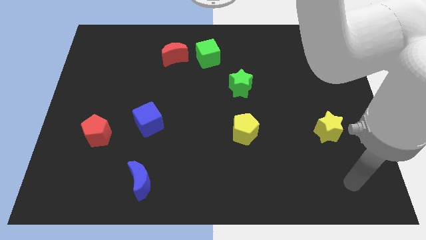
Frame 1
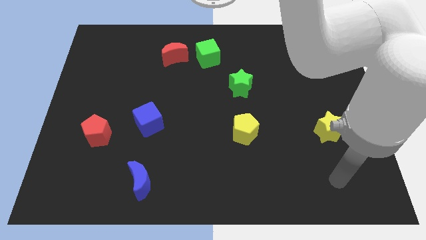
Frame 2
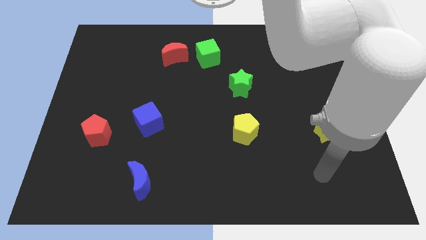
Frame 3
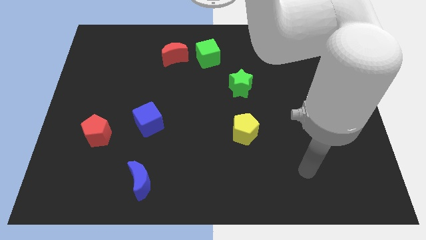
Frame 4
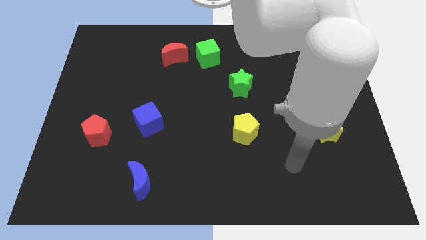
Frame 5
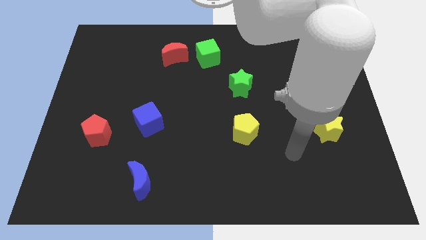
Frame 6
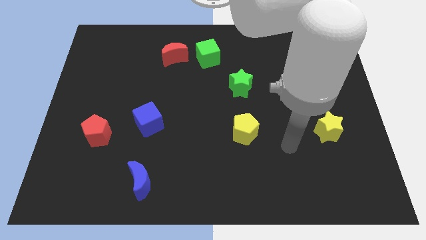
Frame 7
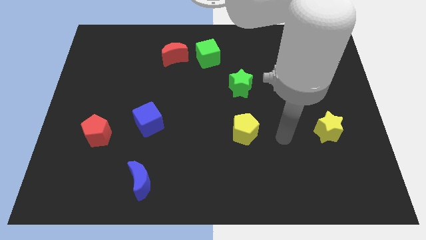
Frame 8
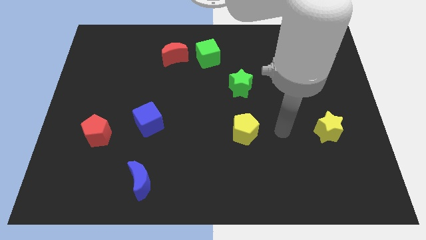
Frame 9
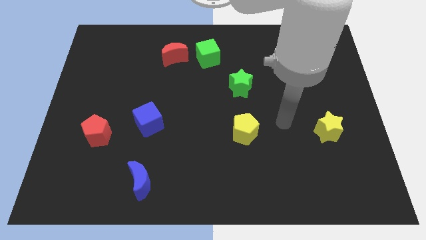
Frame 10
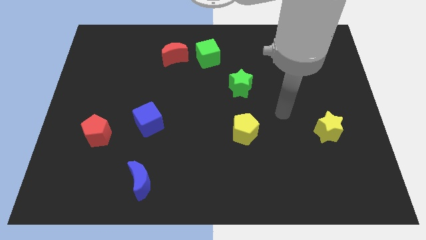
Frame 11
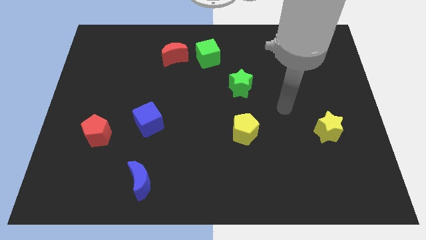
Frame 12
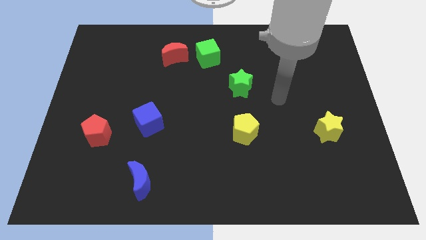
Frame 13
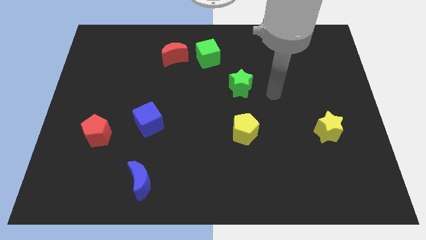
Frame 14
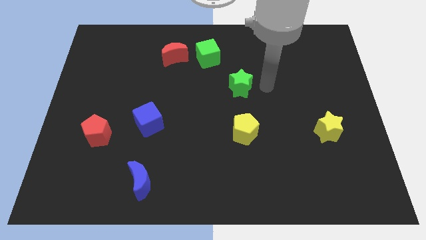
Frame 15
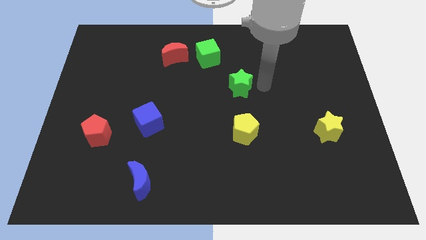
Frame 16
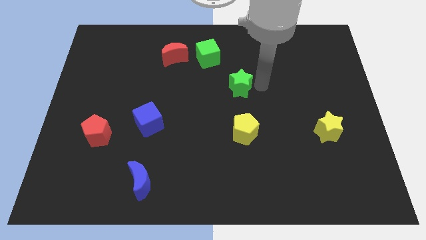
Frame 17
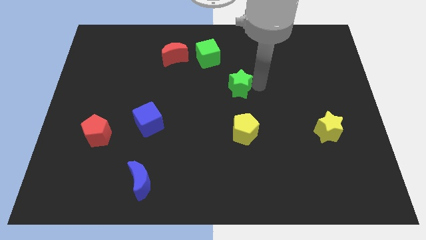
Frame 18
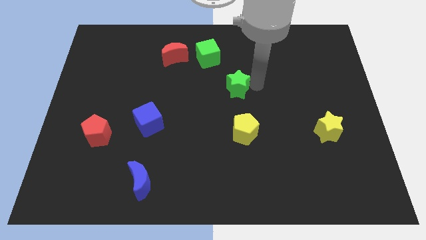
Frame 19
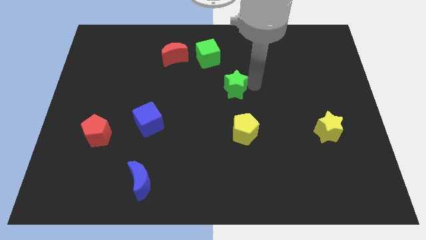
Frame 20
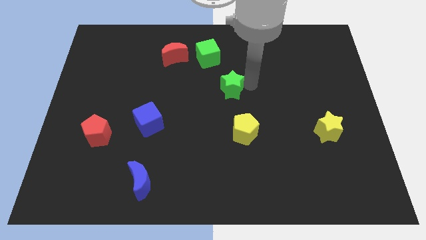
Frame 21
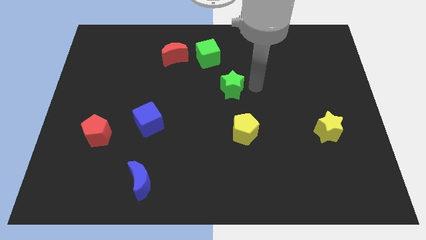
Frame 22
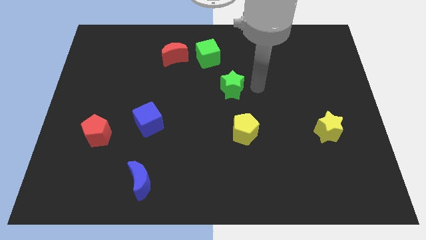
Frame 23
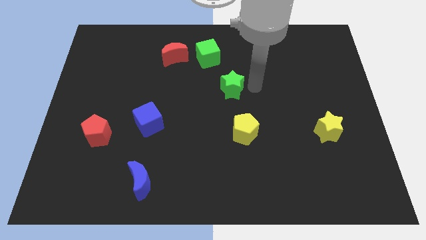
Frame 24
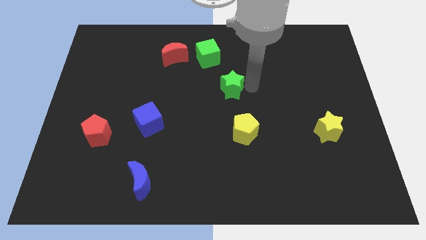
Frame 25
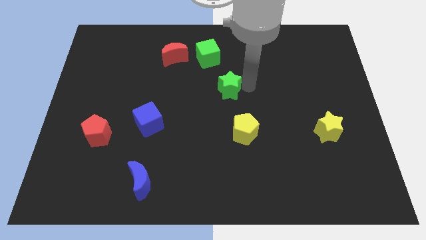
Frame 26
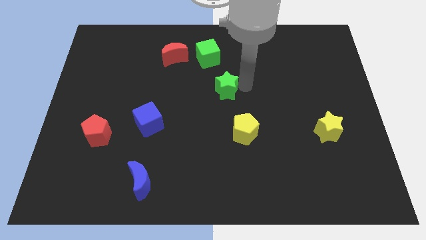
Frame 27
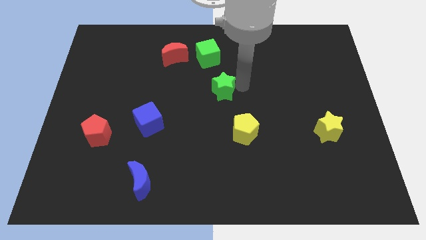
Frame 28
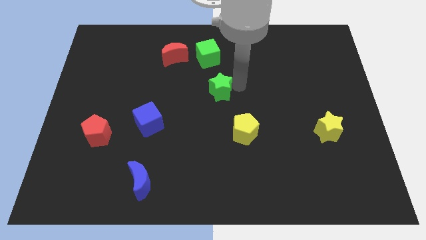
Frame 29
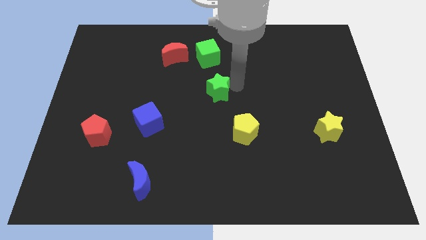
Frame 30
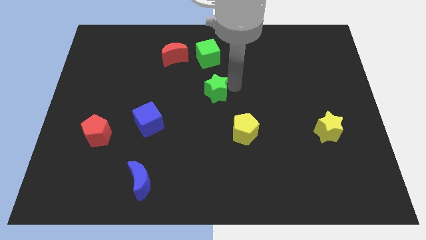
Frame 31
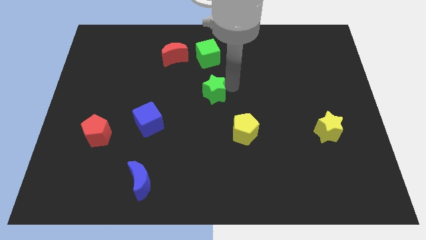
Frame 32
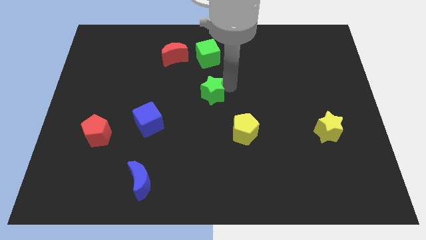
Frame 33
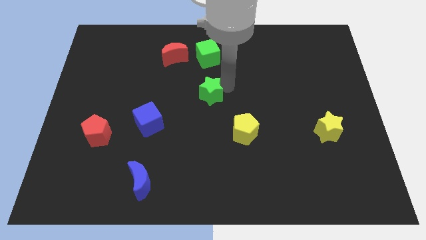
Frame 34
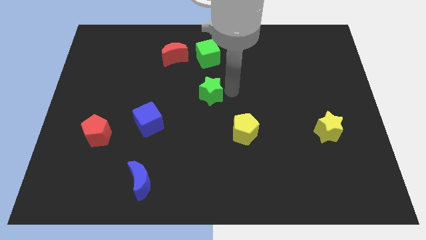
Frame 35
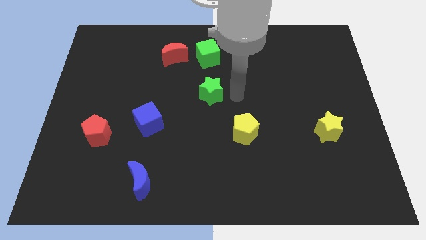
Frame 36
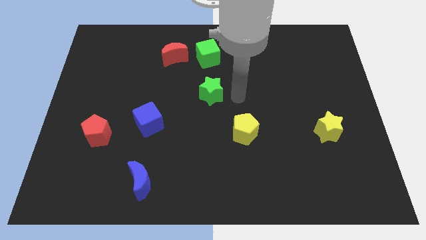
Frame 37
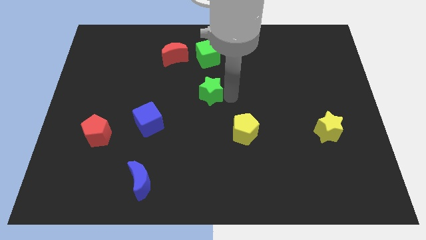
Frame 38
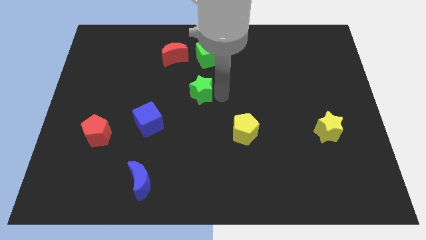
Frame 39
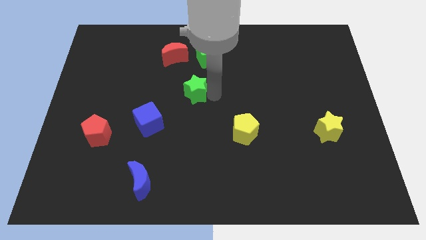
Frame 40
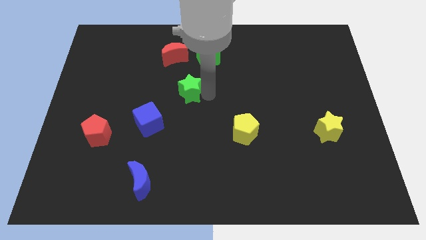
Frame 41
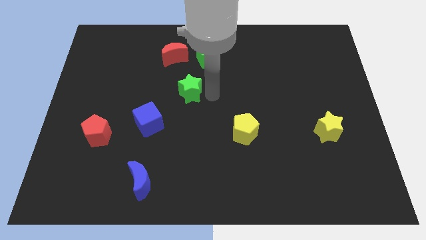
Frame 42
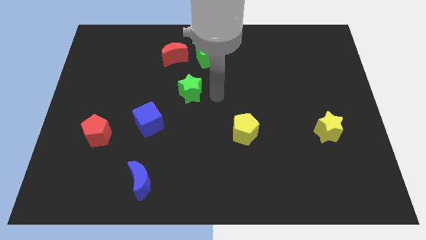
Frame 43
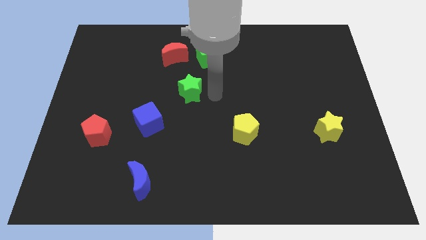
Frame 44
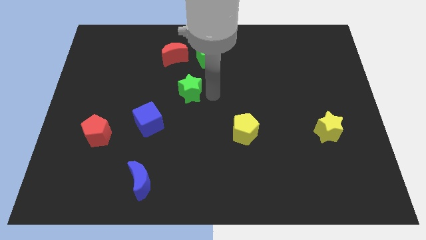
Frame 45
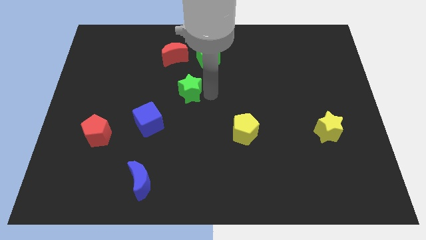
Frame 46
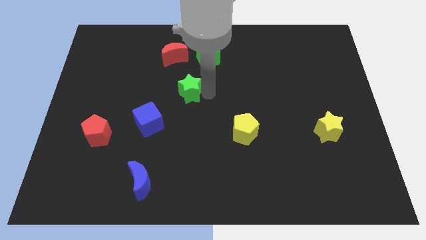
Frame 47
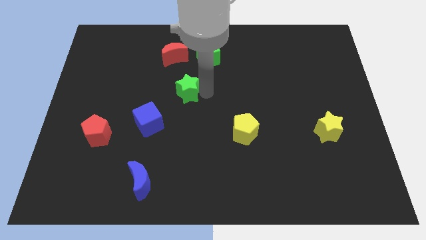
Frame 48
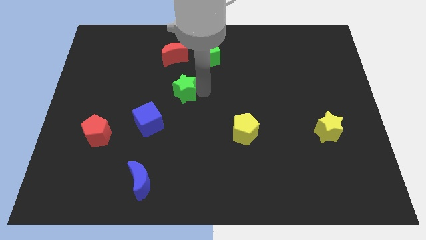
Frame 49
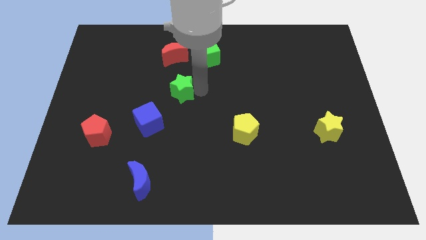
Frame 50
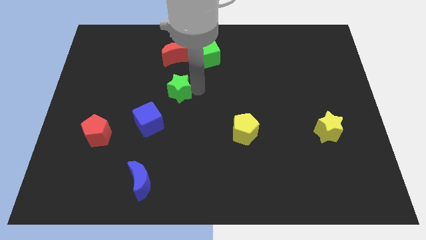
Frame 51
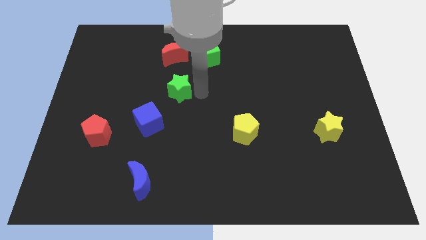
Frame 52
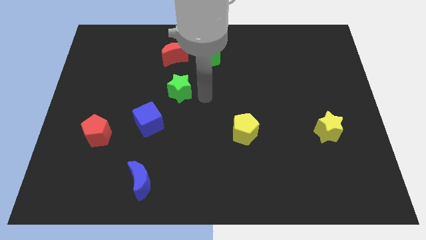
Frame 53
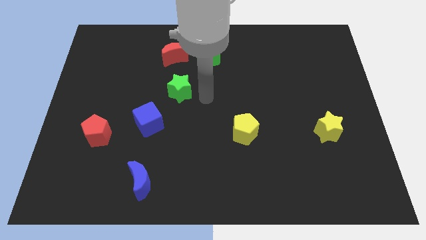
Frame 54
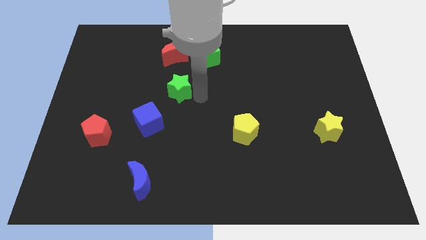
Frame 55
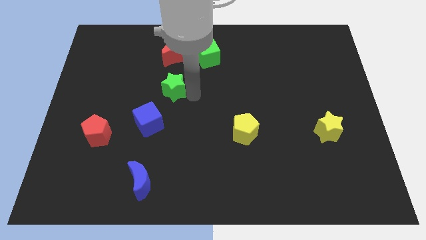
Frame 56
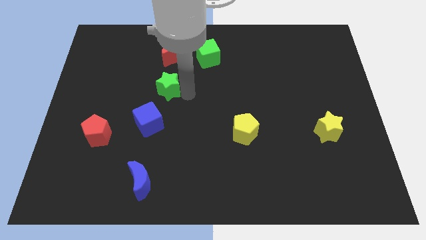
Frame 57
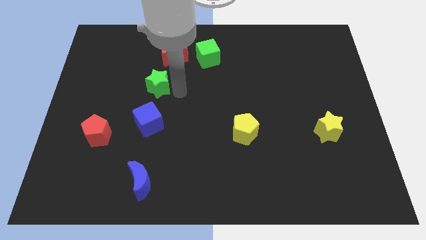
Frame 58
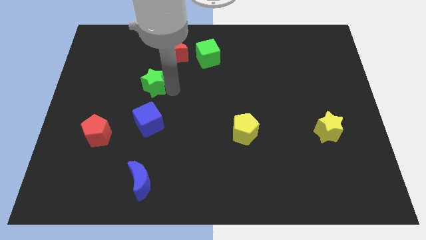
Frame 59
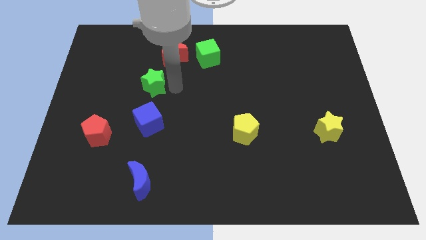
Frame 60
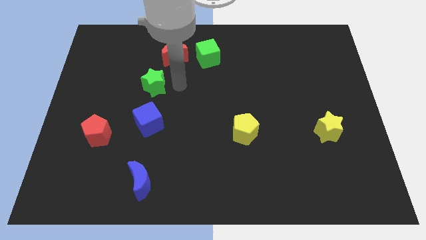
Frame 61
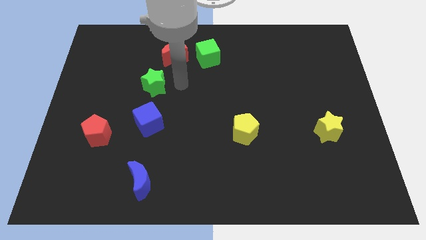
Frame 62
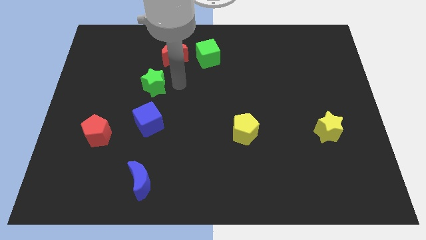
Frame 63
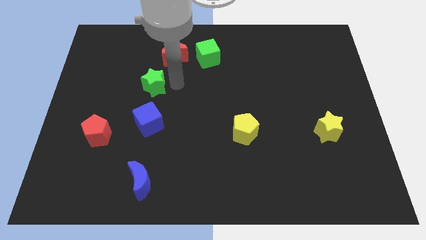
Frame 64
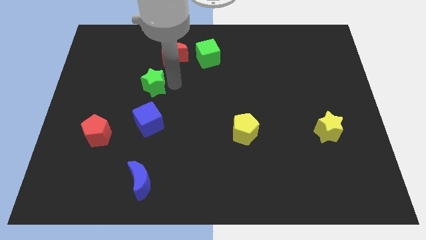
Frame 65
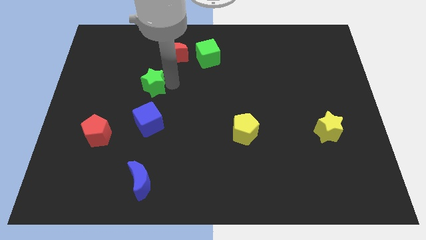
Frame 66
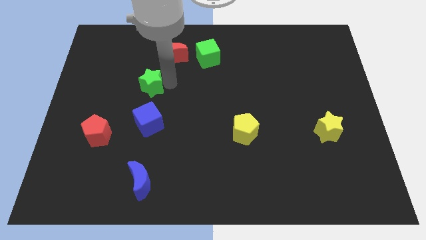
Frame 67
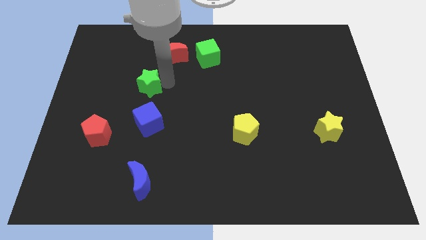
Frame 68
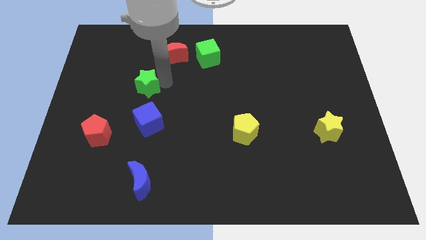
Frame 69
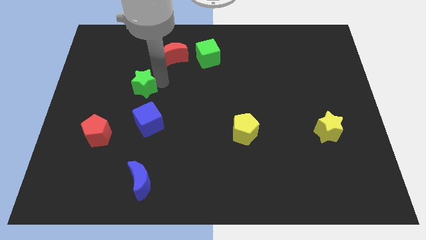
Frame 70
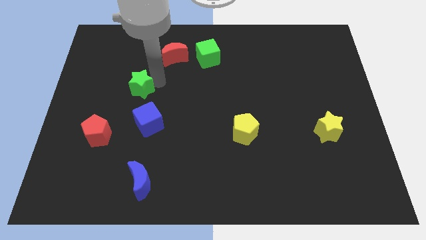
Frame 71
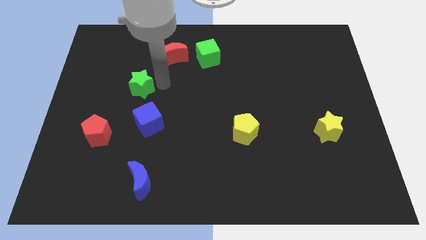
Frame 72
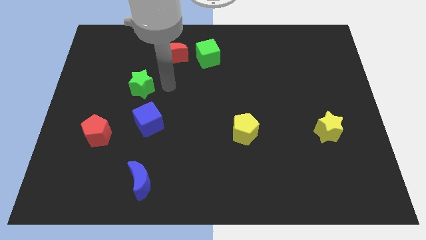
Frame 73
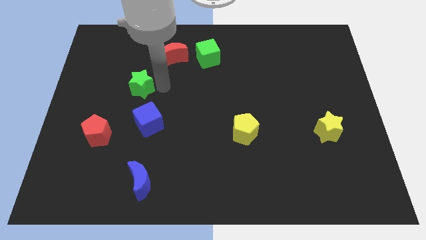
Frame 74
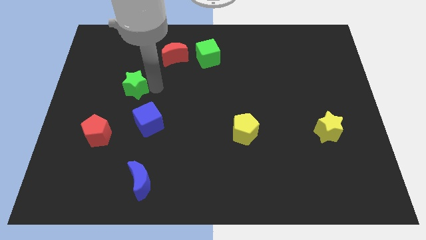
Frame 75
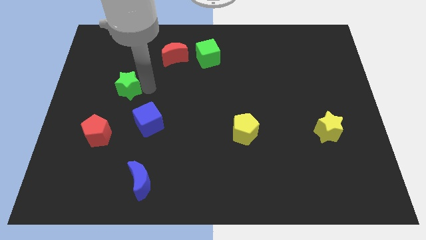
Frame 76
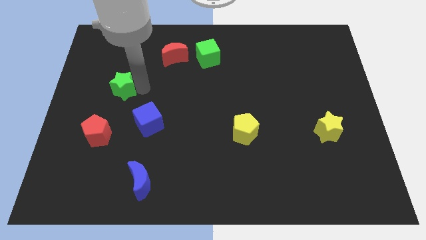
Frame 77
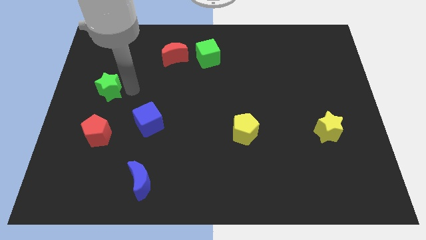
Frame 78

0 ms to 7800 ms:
slide the green star to the left side of the board
